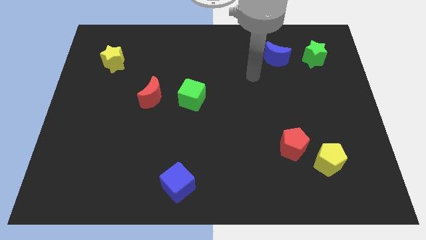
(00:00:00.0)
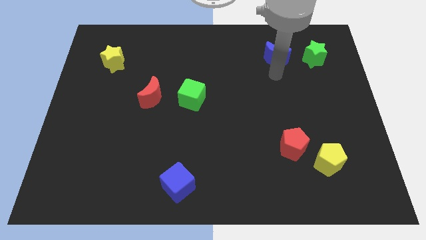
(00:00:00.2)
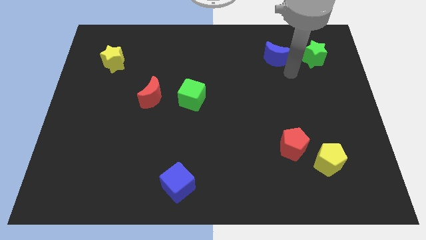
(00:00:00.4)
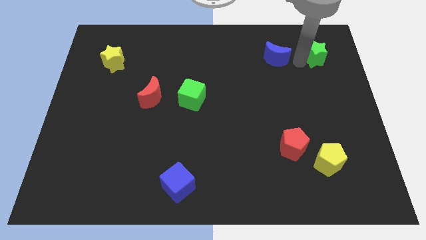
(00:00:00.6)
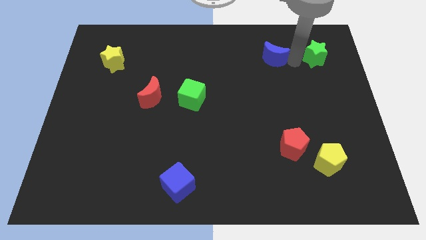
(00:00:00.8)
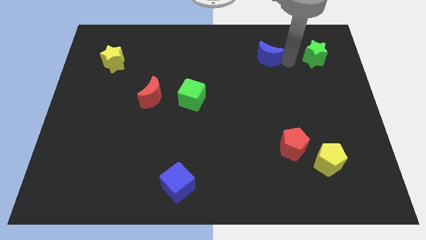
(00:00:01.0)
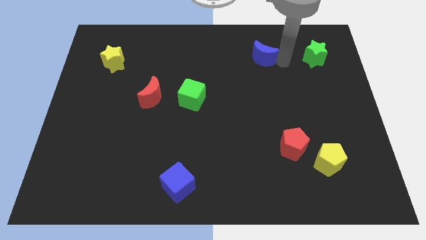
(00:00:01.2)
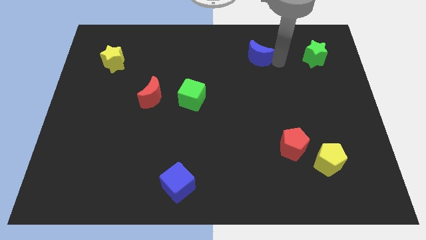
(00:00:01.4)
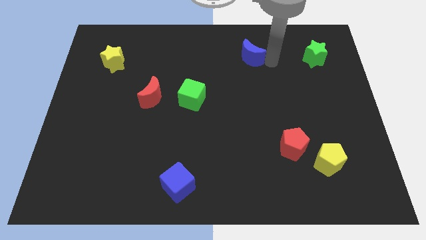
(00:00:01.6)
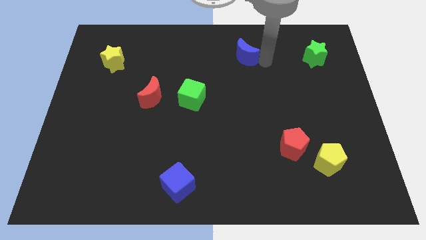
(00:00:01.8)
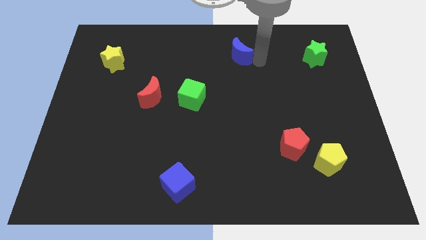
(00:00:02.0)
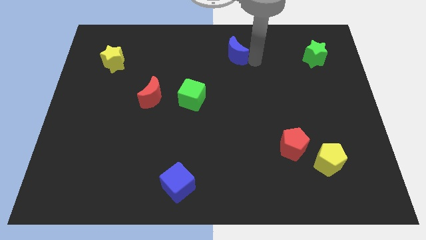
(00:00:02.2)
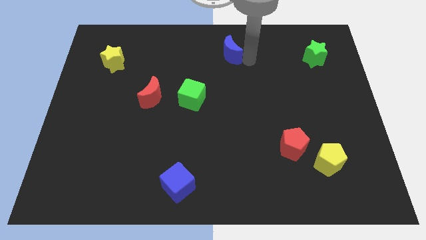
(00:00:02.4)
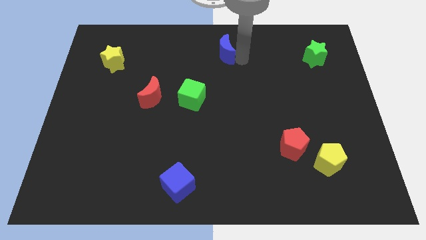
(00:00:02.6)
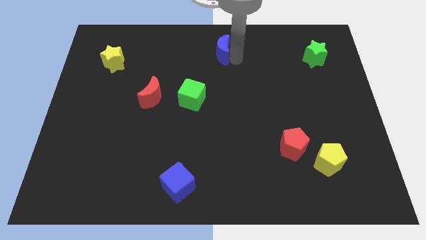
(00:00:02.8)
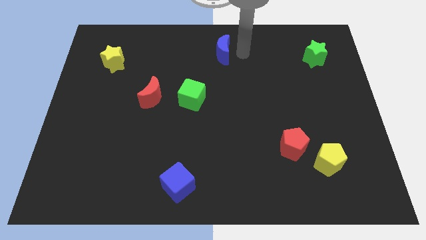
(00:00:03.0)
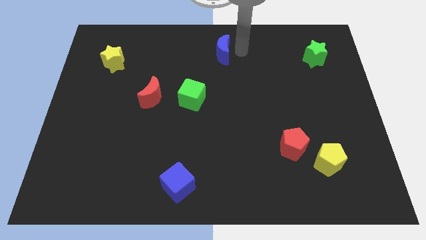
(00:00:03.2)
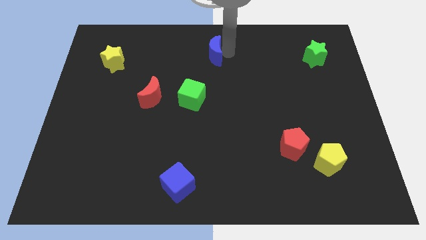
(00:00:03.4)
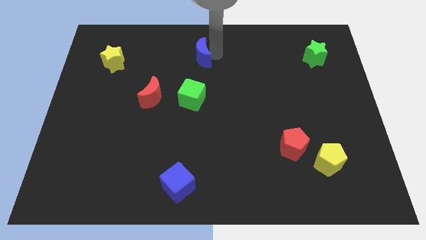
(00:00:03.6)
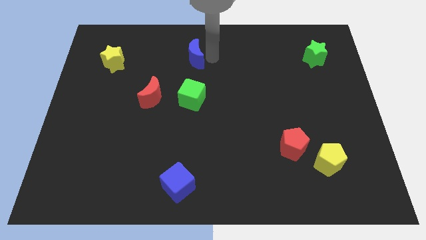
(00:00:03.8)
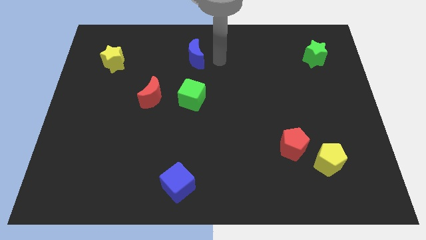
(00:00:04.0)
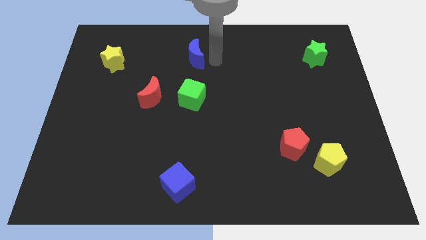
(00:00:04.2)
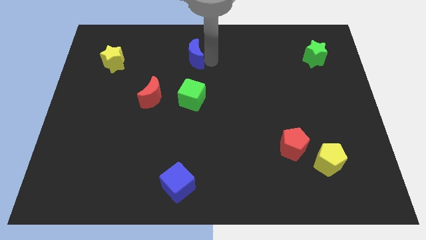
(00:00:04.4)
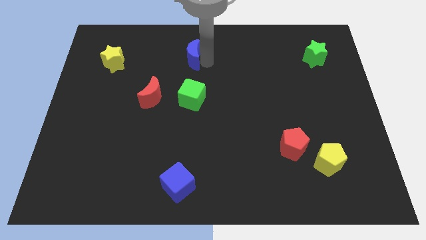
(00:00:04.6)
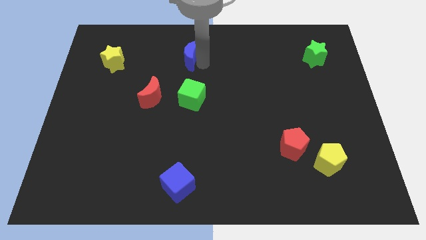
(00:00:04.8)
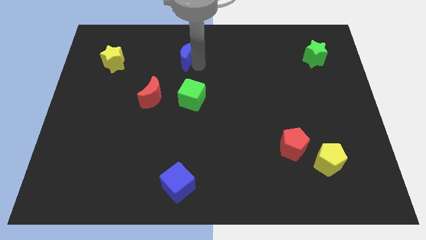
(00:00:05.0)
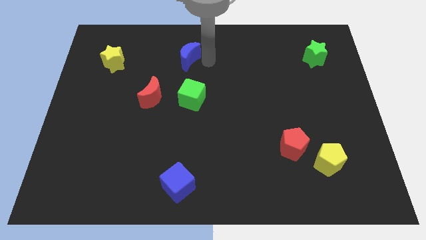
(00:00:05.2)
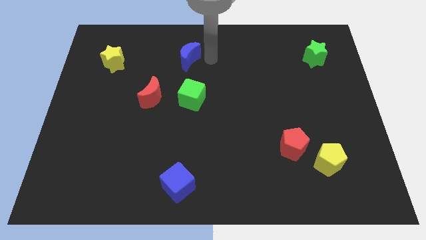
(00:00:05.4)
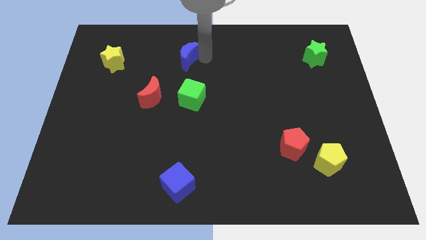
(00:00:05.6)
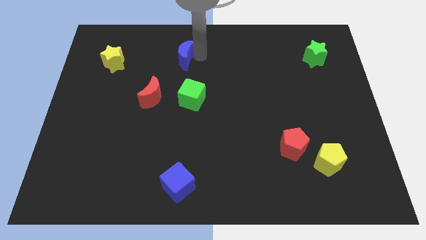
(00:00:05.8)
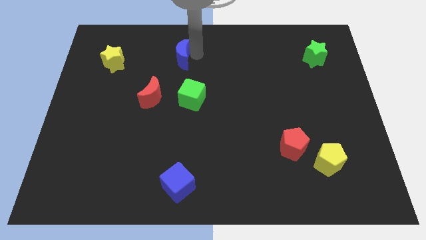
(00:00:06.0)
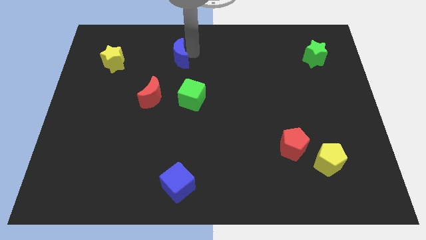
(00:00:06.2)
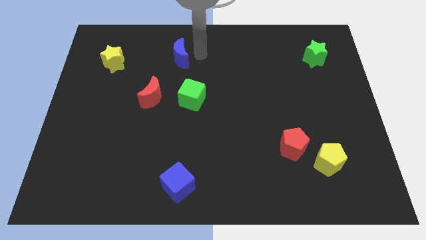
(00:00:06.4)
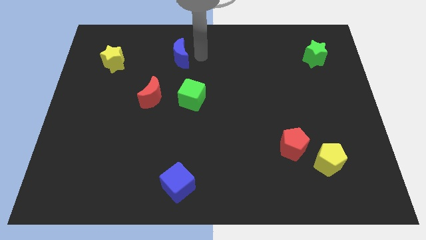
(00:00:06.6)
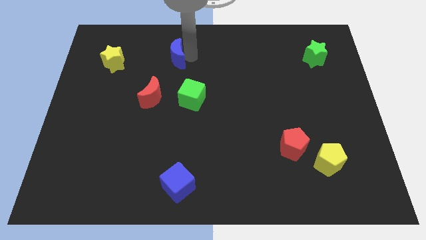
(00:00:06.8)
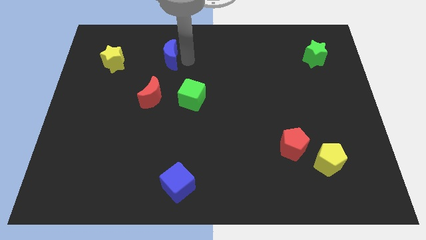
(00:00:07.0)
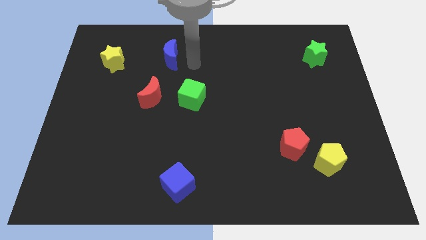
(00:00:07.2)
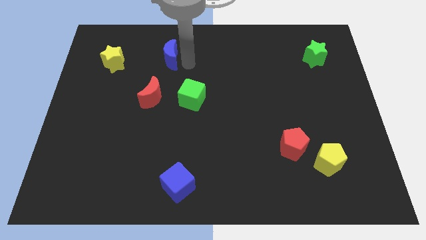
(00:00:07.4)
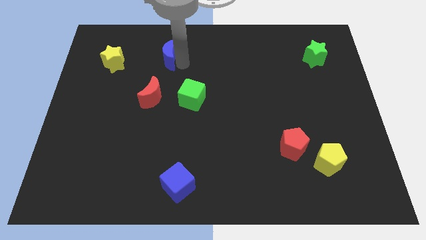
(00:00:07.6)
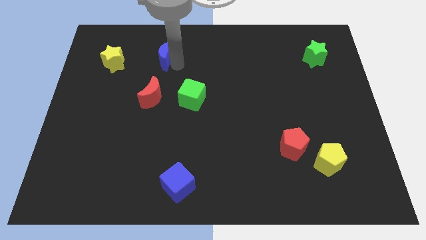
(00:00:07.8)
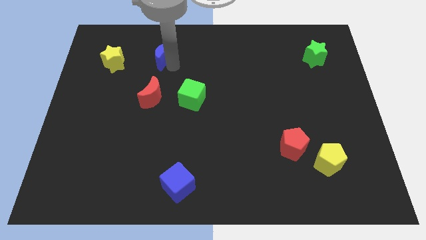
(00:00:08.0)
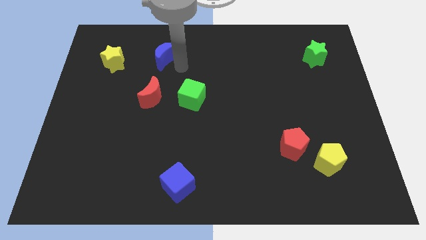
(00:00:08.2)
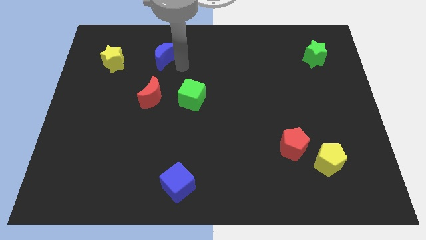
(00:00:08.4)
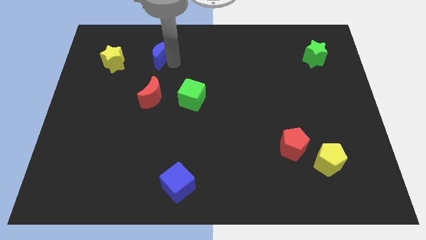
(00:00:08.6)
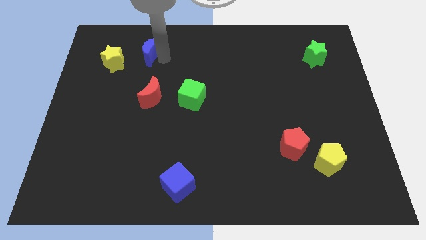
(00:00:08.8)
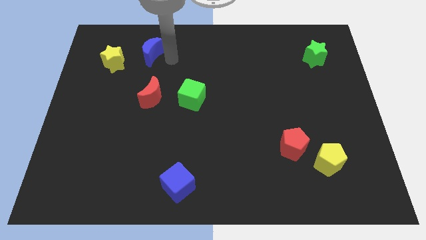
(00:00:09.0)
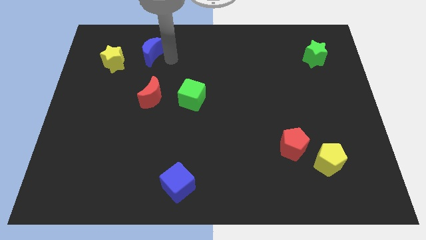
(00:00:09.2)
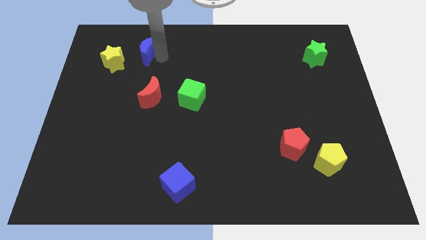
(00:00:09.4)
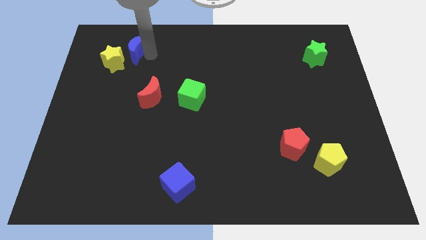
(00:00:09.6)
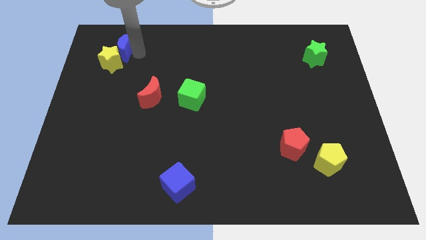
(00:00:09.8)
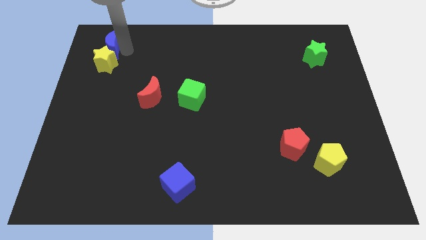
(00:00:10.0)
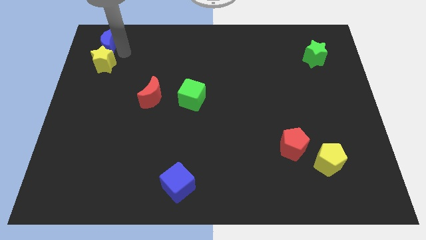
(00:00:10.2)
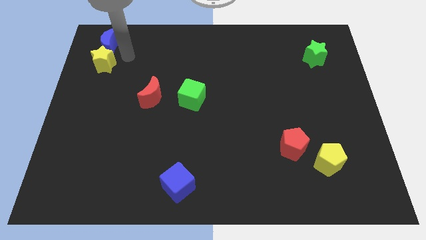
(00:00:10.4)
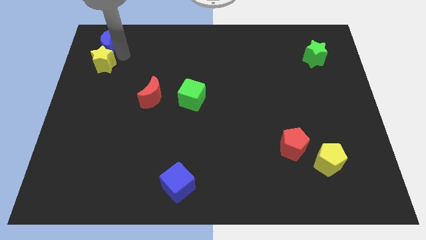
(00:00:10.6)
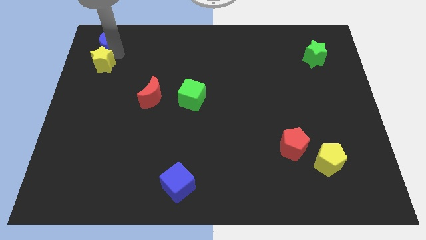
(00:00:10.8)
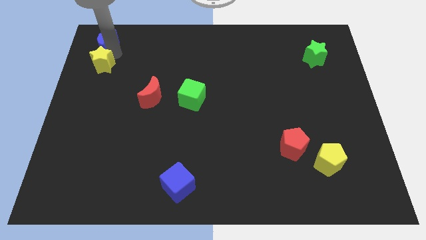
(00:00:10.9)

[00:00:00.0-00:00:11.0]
move the blue moon to the upper left corner

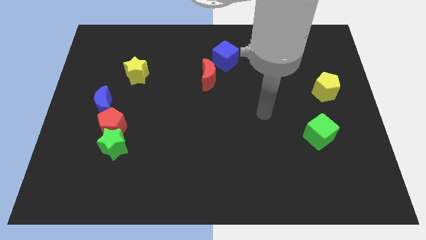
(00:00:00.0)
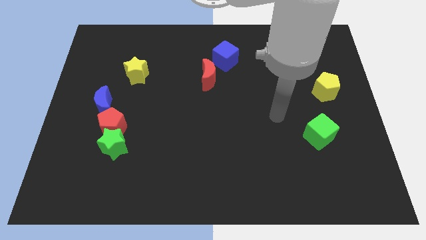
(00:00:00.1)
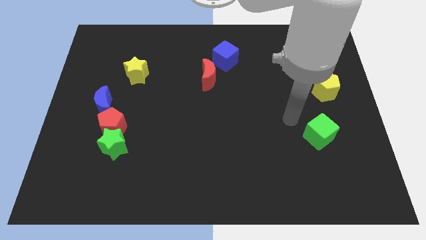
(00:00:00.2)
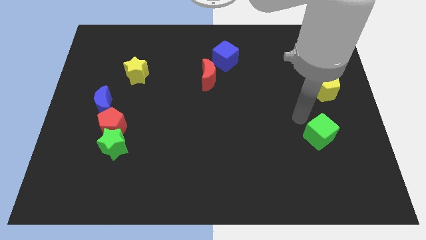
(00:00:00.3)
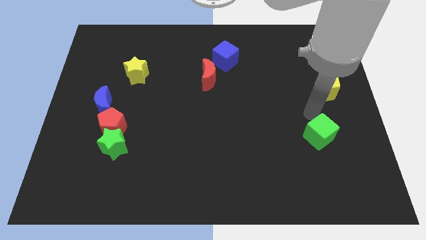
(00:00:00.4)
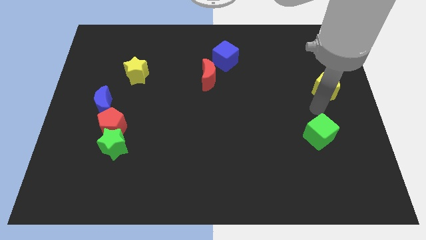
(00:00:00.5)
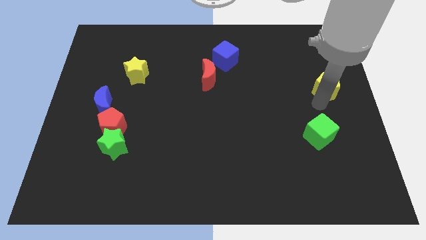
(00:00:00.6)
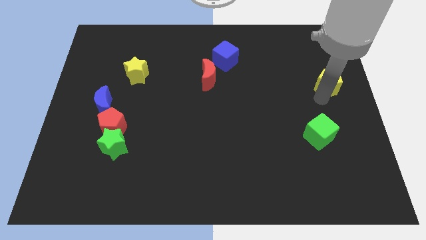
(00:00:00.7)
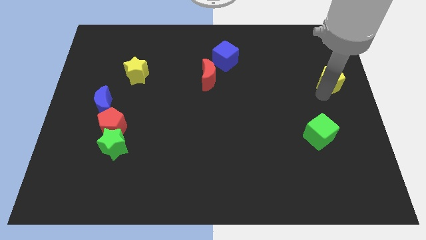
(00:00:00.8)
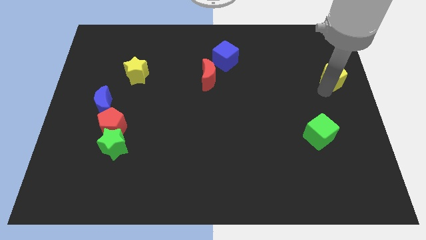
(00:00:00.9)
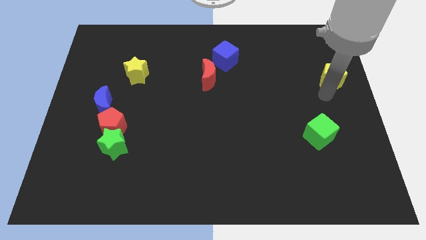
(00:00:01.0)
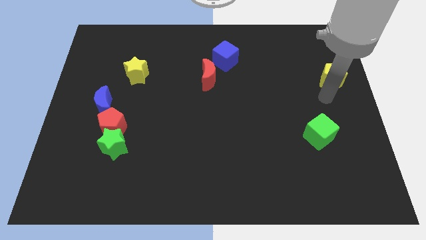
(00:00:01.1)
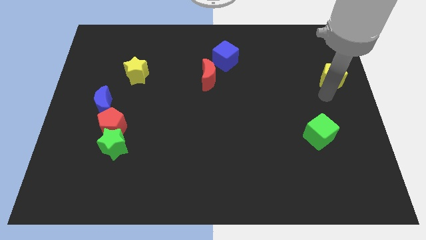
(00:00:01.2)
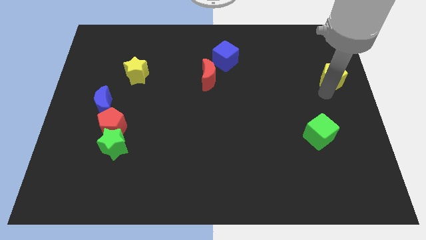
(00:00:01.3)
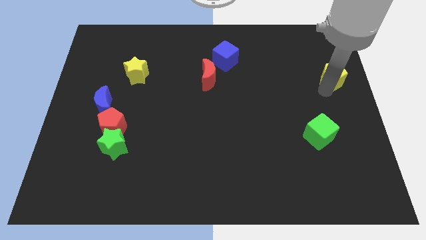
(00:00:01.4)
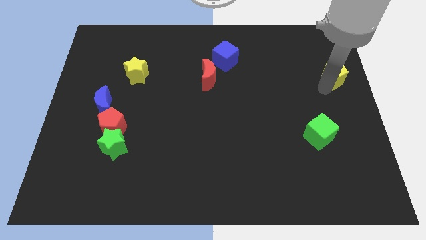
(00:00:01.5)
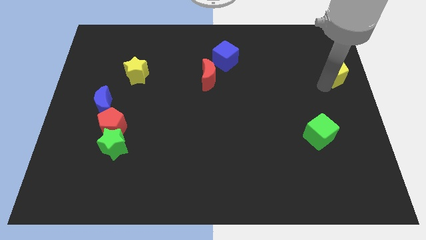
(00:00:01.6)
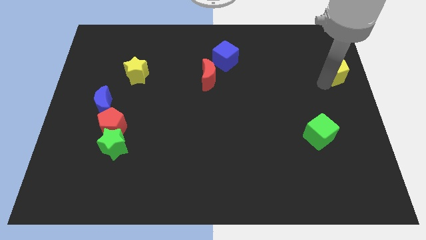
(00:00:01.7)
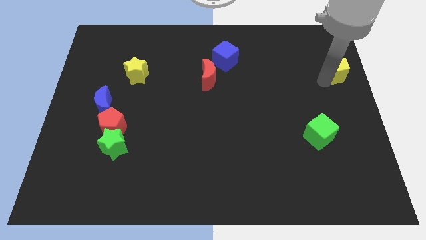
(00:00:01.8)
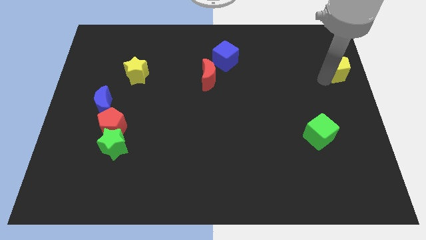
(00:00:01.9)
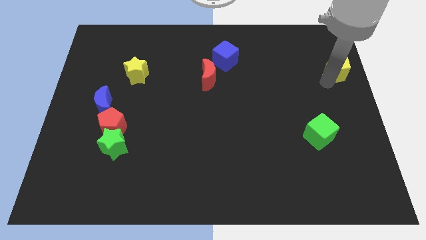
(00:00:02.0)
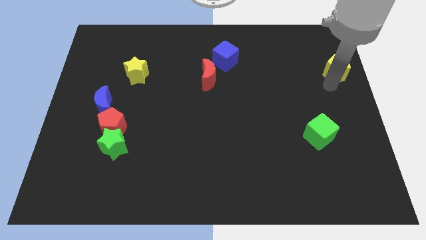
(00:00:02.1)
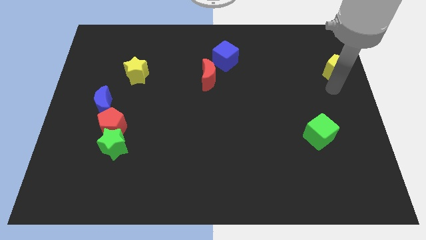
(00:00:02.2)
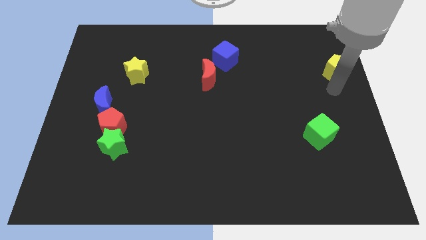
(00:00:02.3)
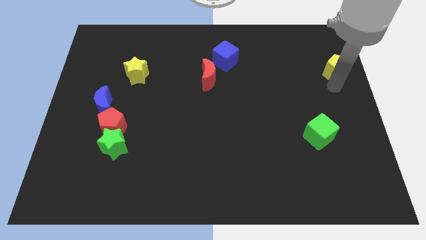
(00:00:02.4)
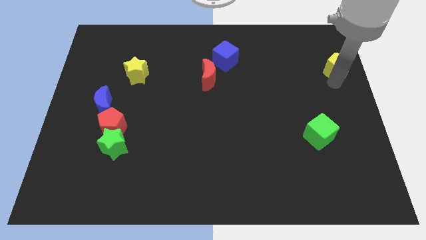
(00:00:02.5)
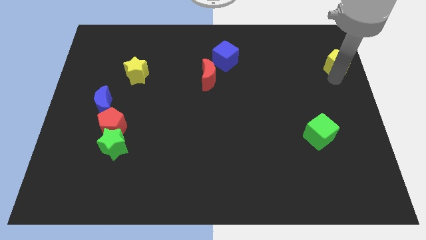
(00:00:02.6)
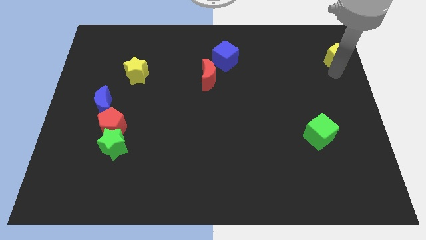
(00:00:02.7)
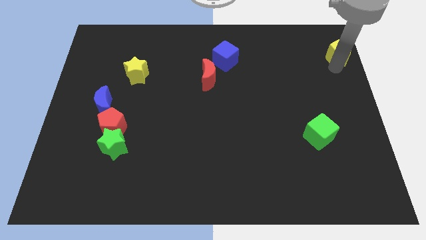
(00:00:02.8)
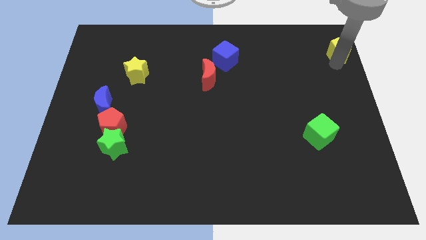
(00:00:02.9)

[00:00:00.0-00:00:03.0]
move the yellow pentagon to the top right corner
